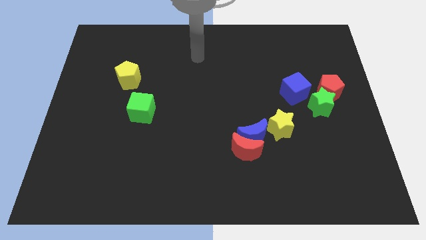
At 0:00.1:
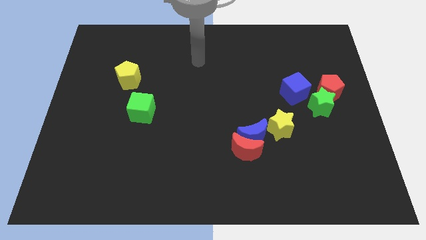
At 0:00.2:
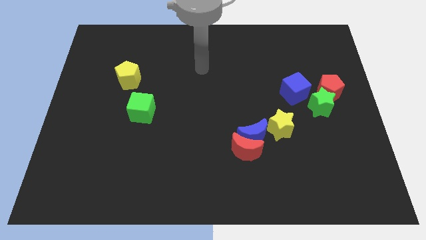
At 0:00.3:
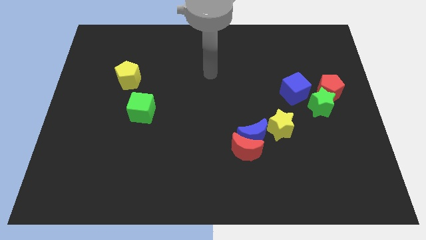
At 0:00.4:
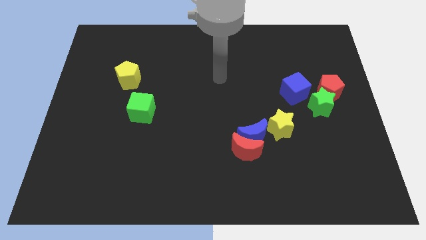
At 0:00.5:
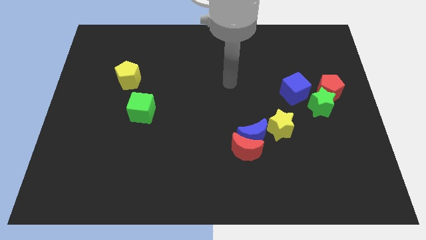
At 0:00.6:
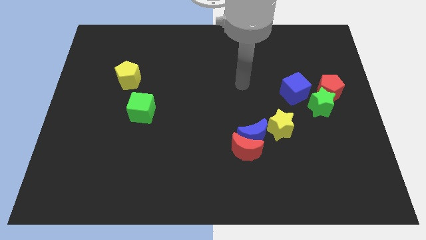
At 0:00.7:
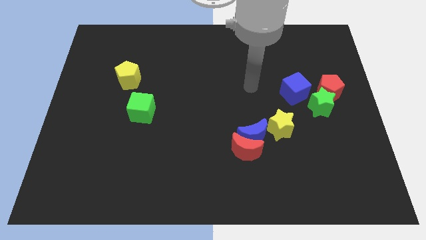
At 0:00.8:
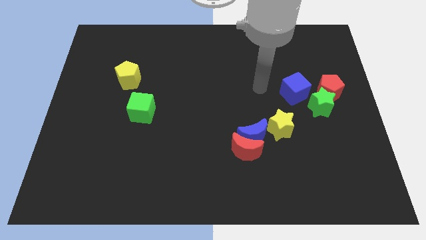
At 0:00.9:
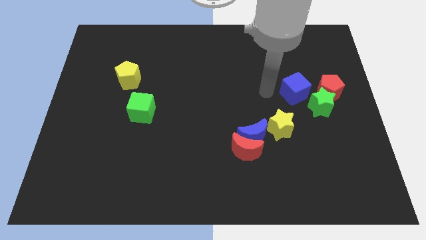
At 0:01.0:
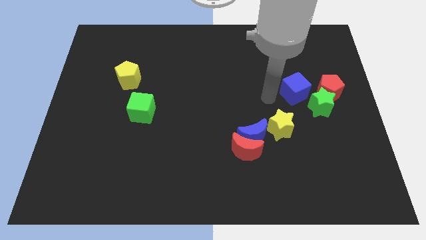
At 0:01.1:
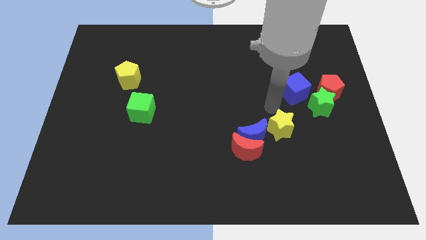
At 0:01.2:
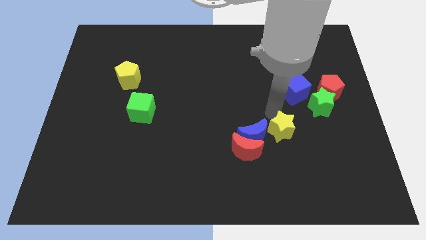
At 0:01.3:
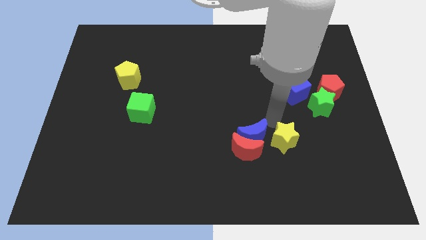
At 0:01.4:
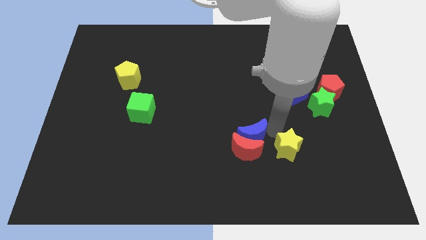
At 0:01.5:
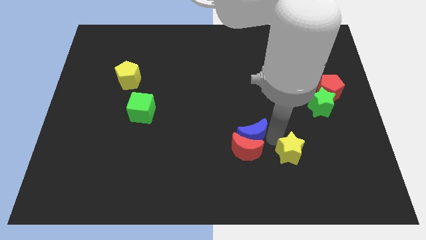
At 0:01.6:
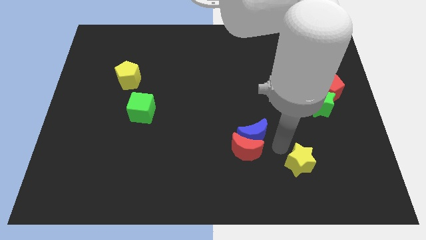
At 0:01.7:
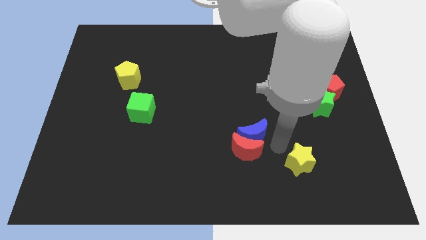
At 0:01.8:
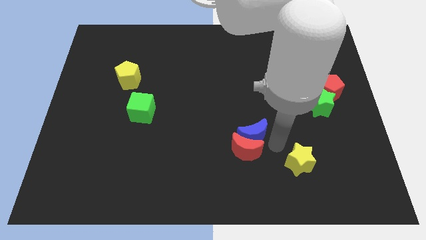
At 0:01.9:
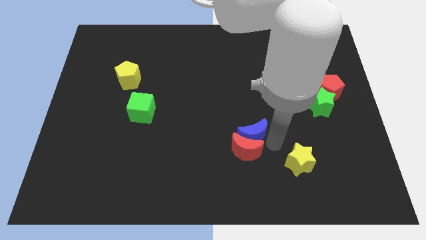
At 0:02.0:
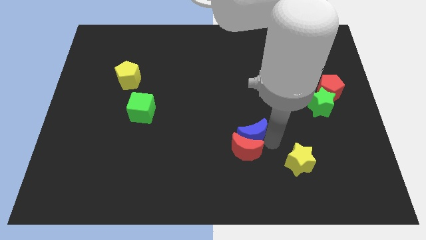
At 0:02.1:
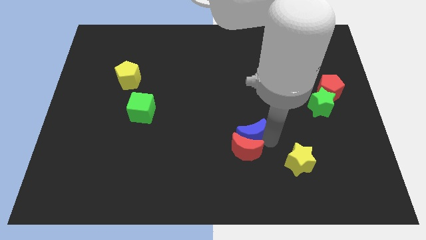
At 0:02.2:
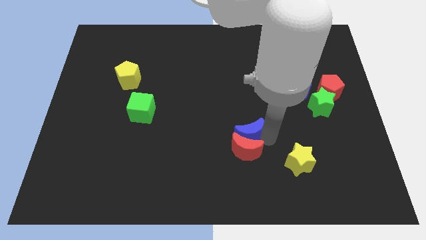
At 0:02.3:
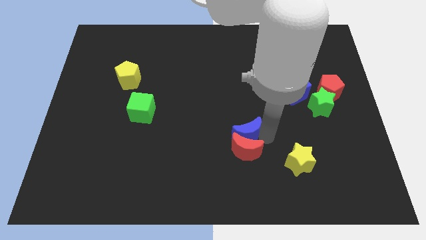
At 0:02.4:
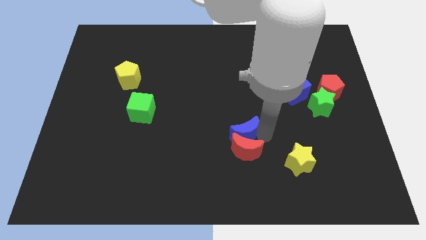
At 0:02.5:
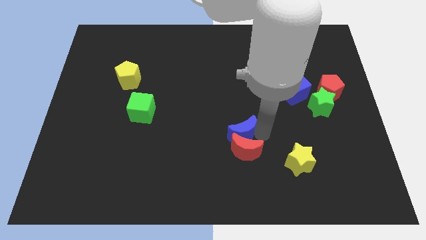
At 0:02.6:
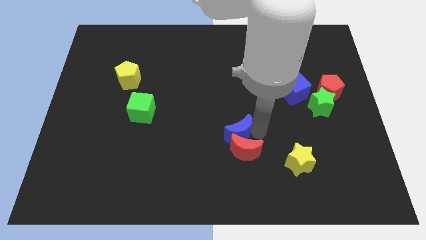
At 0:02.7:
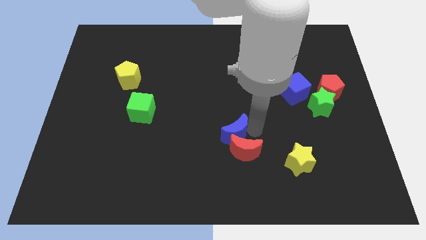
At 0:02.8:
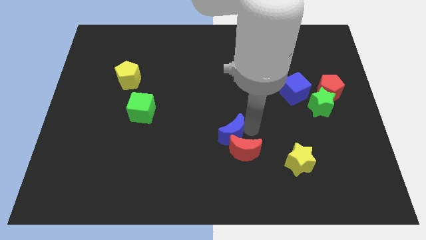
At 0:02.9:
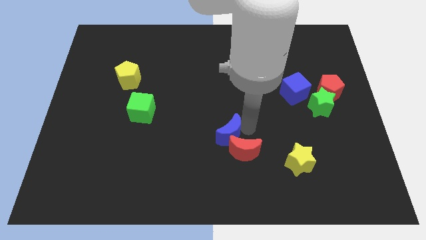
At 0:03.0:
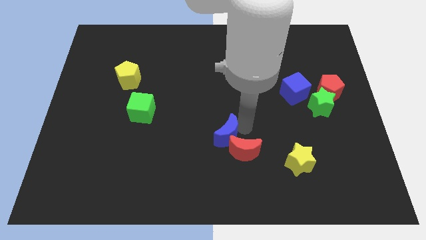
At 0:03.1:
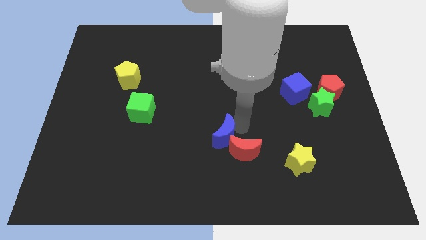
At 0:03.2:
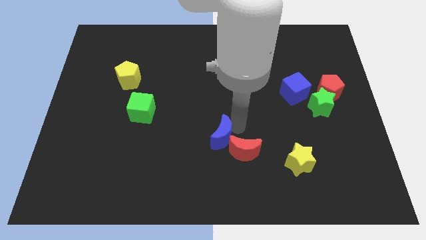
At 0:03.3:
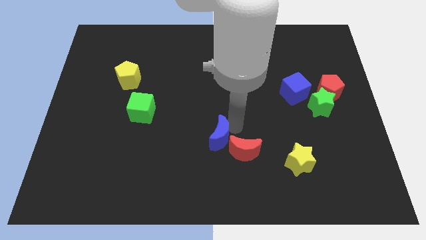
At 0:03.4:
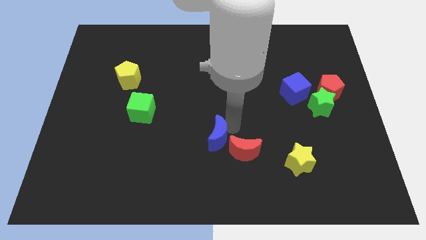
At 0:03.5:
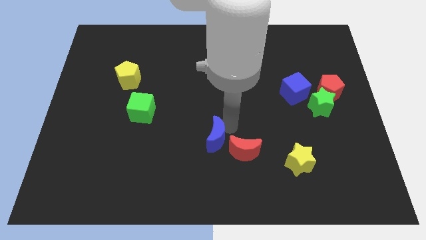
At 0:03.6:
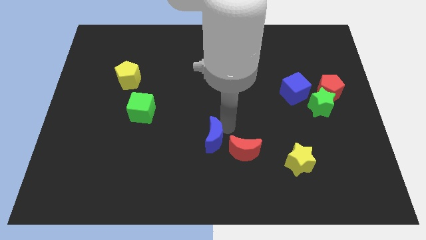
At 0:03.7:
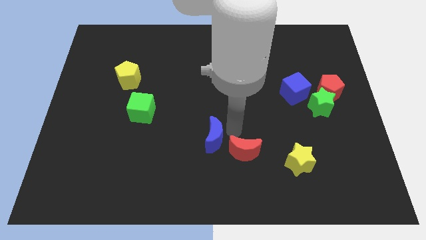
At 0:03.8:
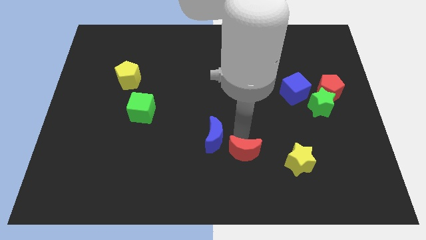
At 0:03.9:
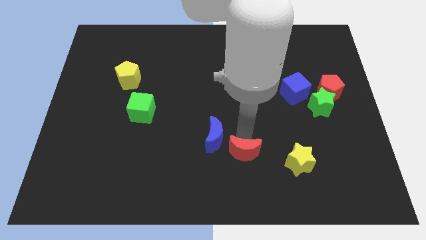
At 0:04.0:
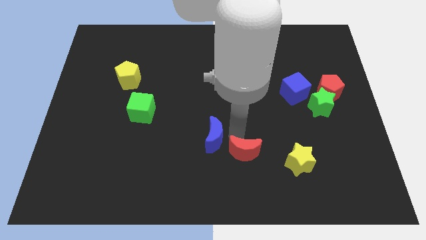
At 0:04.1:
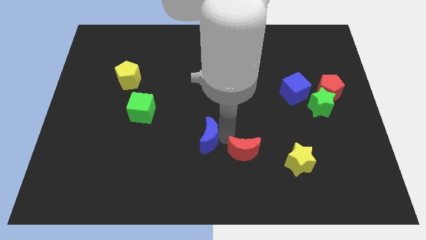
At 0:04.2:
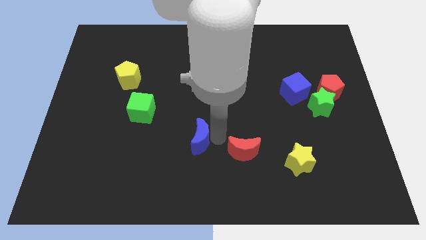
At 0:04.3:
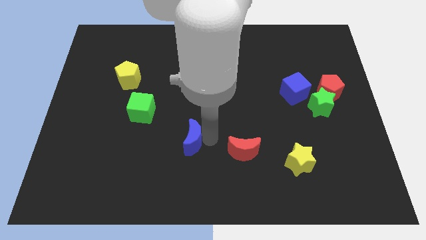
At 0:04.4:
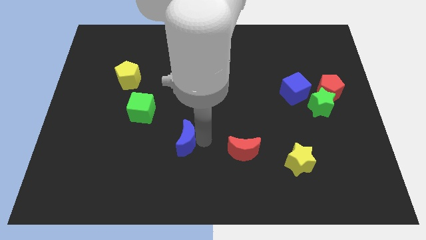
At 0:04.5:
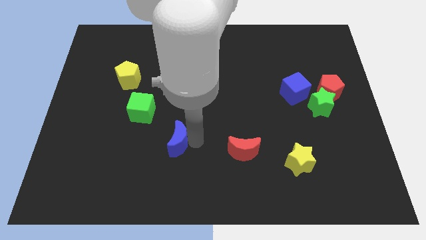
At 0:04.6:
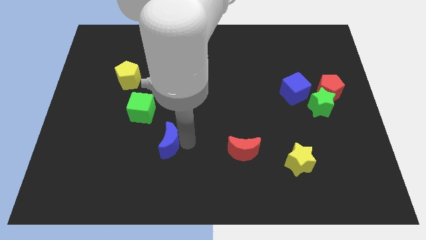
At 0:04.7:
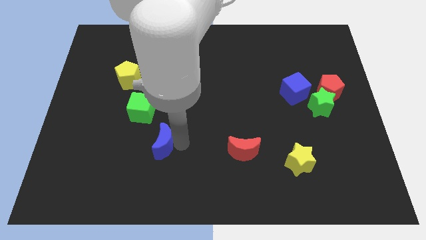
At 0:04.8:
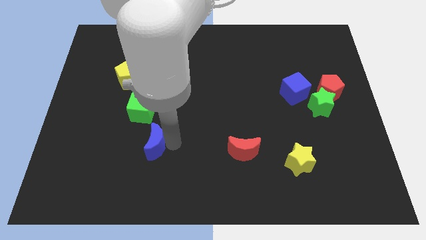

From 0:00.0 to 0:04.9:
push the blue moon below the green cube

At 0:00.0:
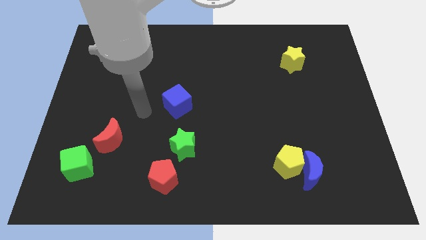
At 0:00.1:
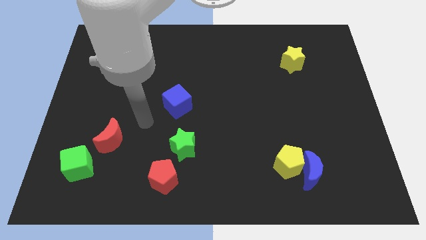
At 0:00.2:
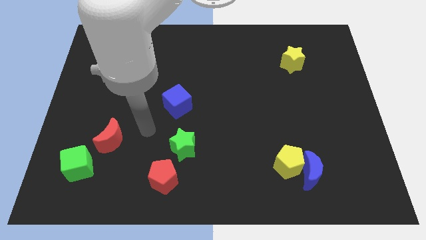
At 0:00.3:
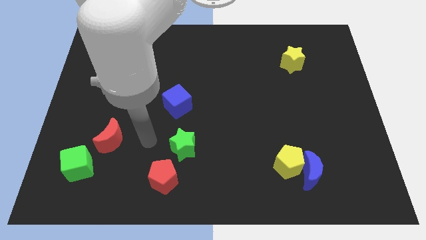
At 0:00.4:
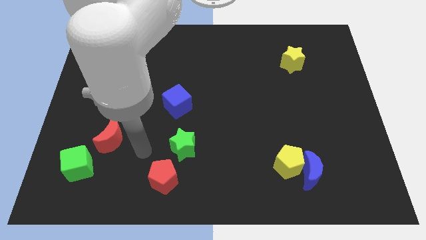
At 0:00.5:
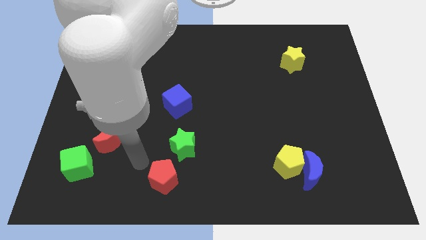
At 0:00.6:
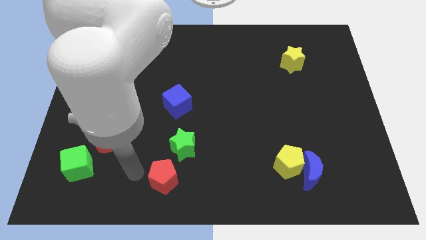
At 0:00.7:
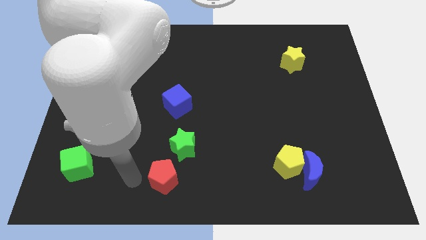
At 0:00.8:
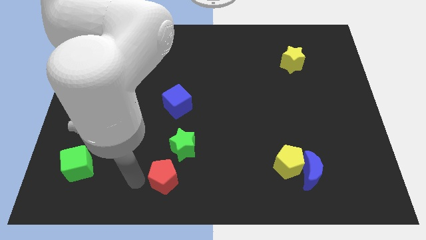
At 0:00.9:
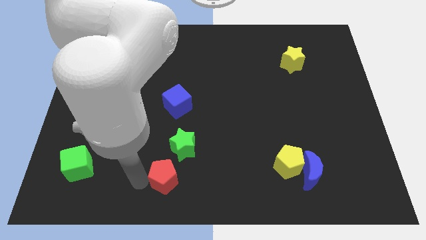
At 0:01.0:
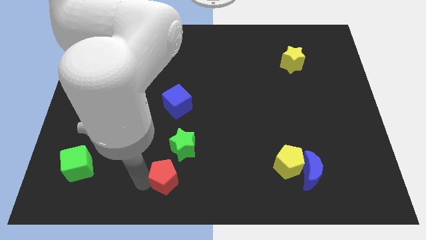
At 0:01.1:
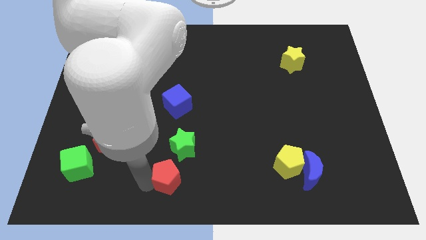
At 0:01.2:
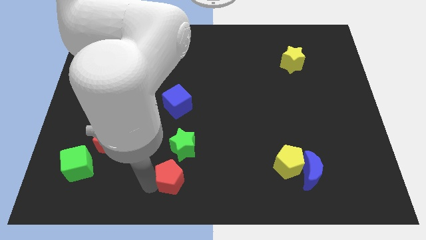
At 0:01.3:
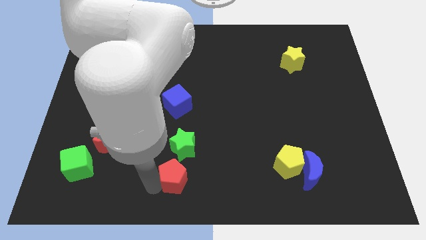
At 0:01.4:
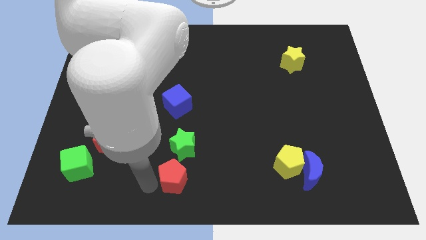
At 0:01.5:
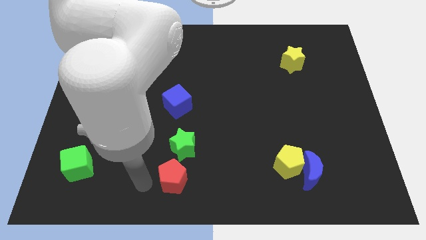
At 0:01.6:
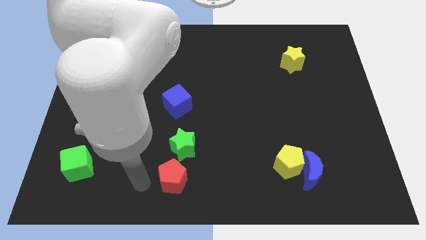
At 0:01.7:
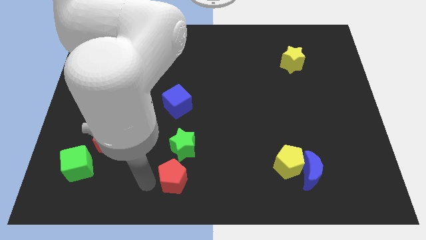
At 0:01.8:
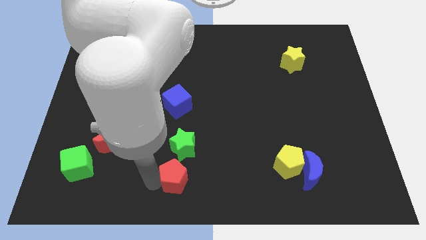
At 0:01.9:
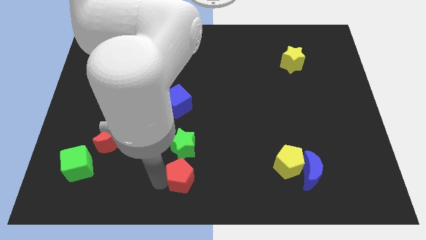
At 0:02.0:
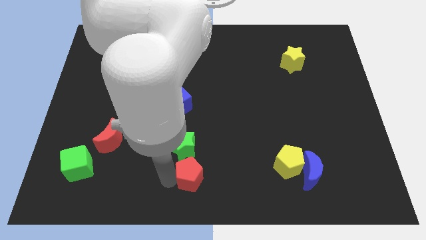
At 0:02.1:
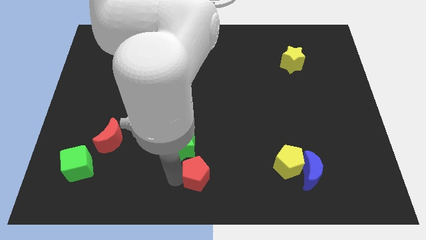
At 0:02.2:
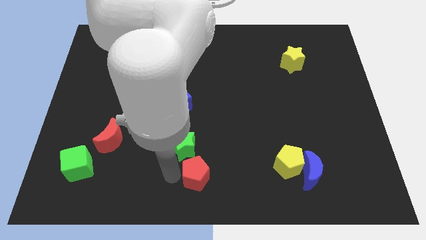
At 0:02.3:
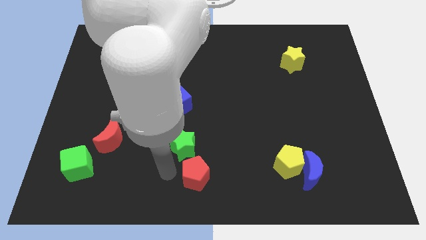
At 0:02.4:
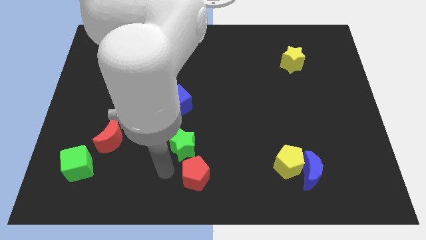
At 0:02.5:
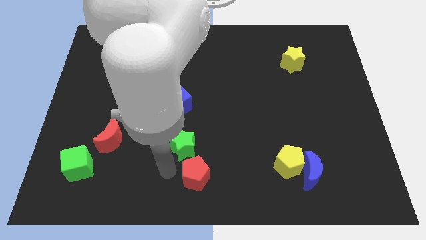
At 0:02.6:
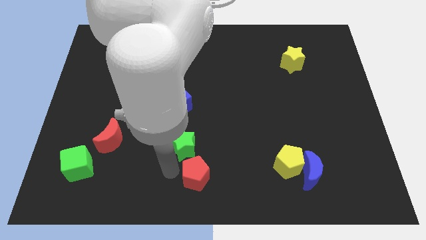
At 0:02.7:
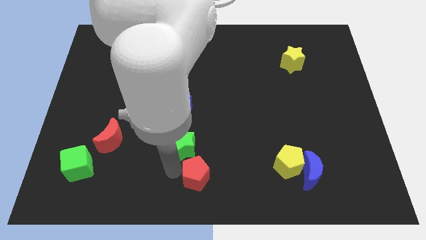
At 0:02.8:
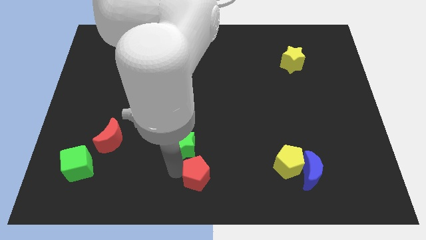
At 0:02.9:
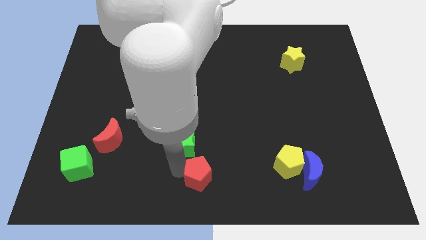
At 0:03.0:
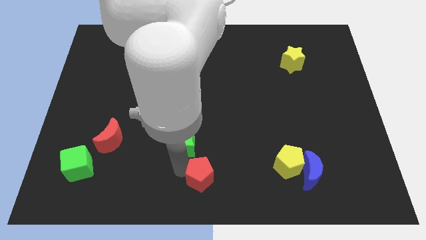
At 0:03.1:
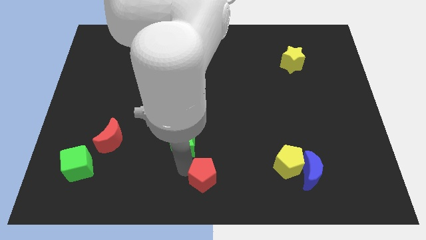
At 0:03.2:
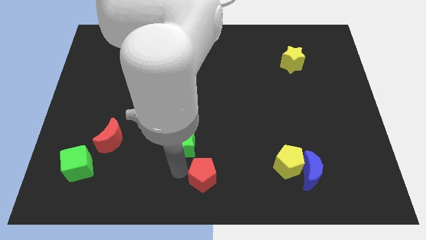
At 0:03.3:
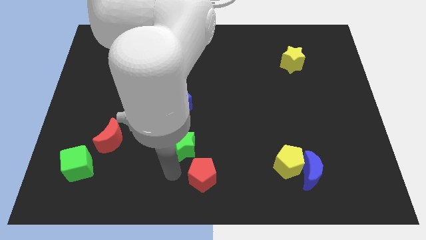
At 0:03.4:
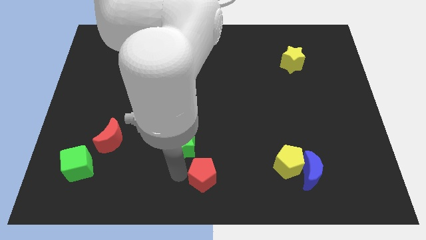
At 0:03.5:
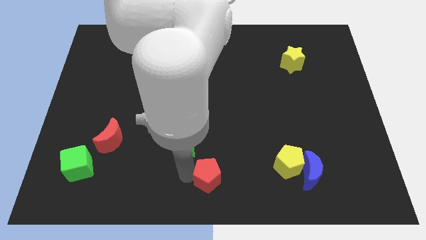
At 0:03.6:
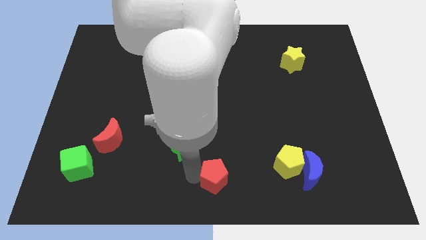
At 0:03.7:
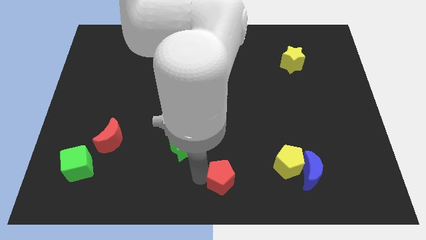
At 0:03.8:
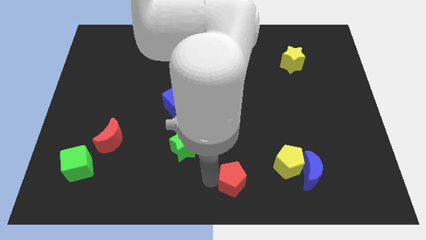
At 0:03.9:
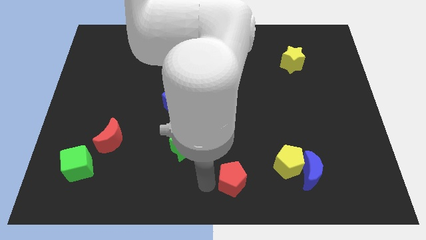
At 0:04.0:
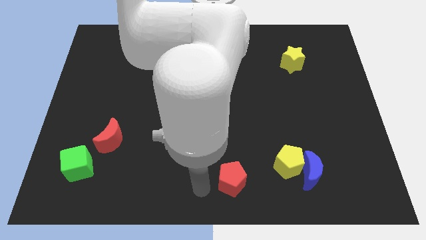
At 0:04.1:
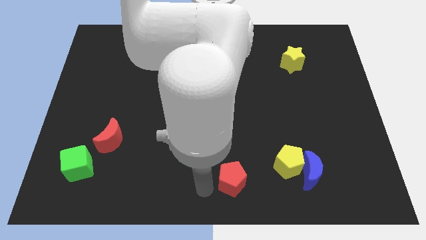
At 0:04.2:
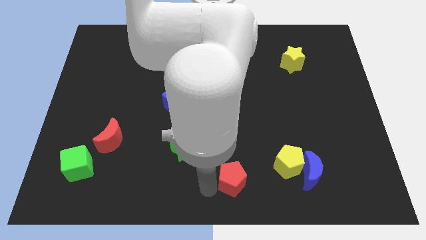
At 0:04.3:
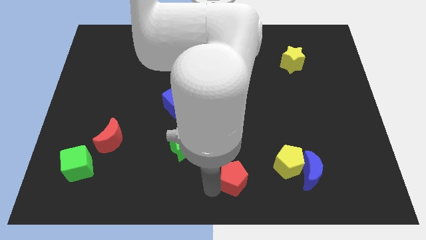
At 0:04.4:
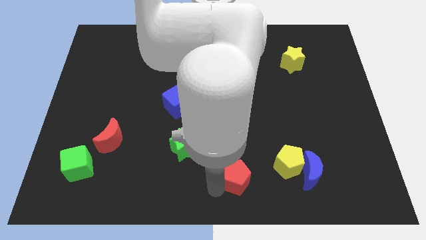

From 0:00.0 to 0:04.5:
slide the red pentagon left of the blue moon
